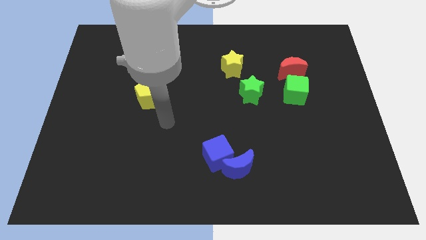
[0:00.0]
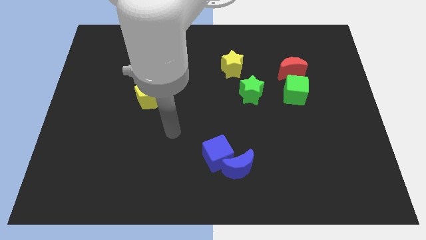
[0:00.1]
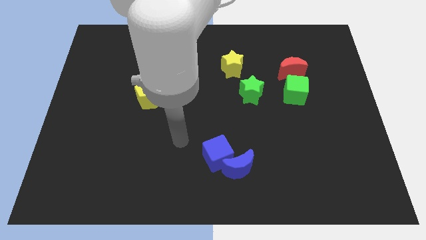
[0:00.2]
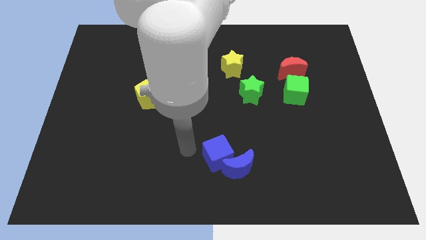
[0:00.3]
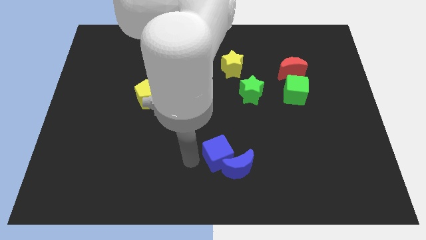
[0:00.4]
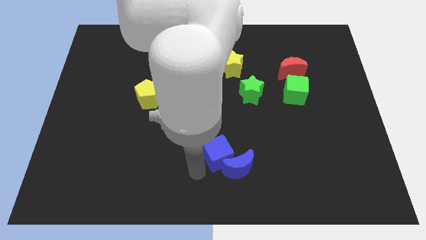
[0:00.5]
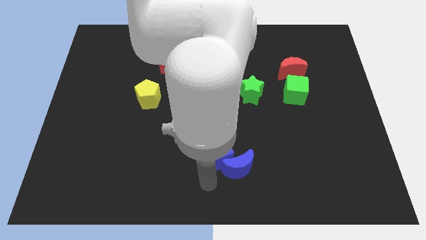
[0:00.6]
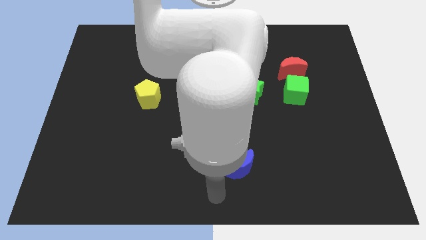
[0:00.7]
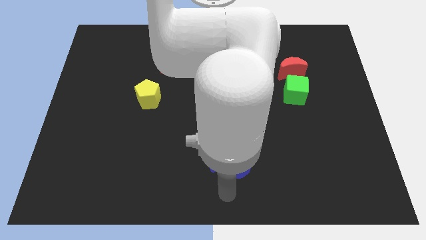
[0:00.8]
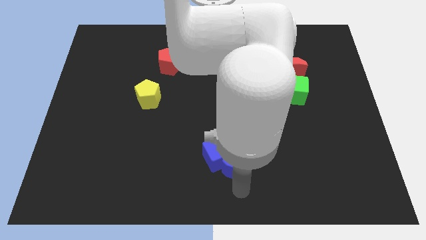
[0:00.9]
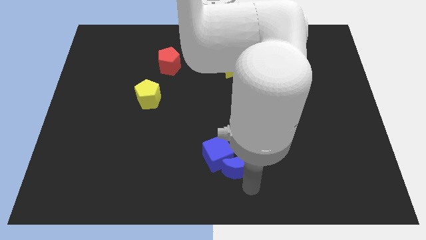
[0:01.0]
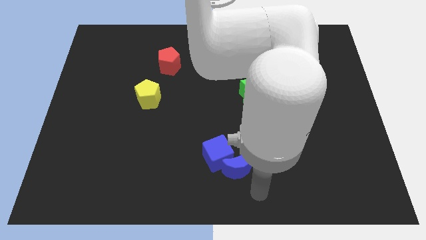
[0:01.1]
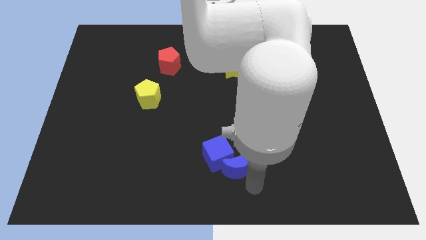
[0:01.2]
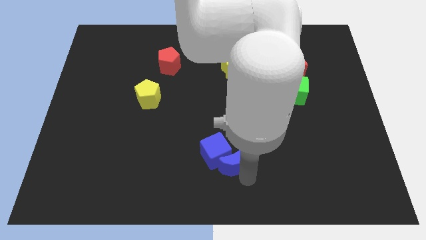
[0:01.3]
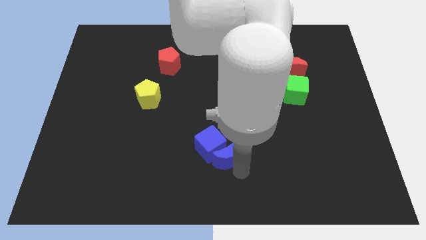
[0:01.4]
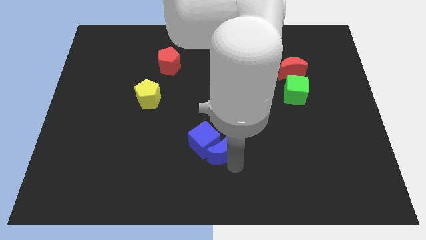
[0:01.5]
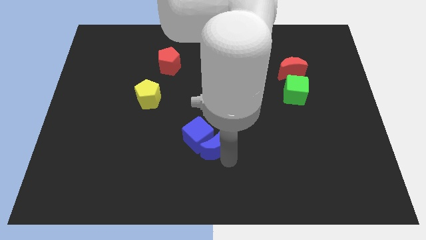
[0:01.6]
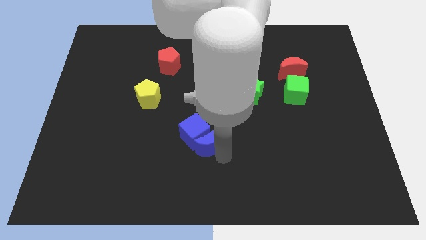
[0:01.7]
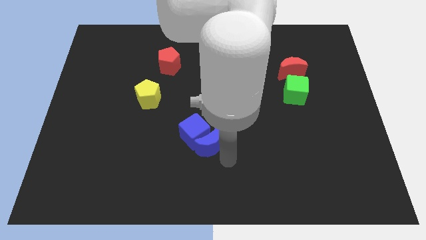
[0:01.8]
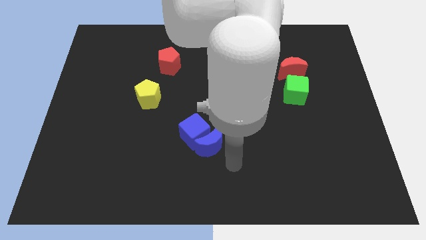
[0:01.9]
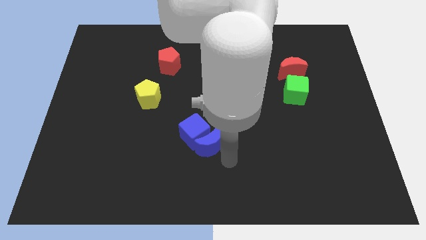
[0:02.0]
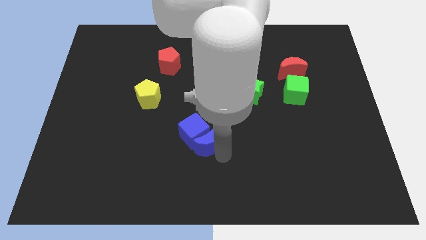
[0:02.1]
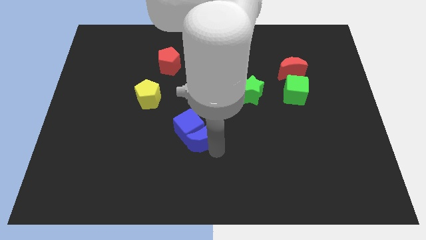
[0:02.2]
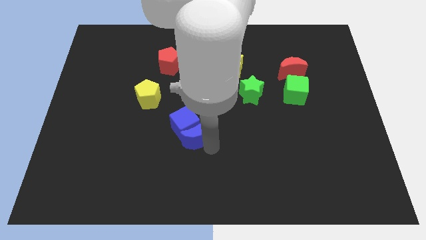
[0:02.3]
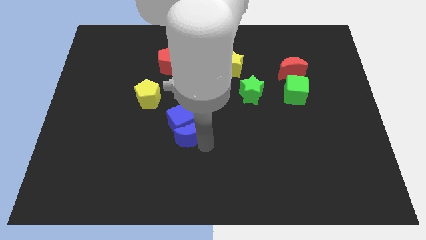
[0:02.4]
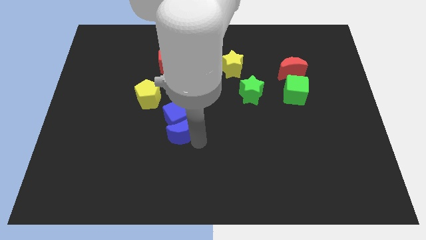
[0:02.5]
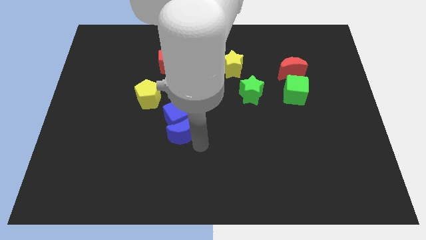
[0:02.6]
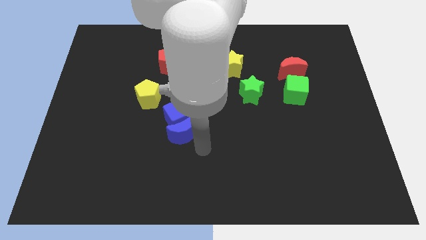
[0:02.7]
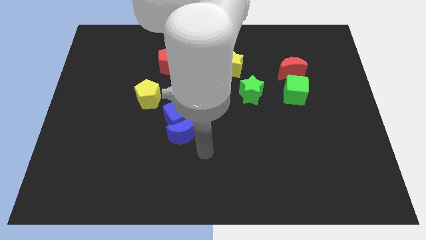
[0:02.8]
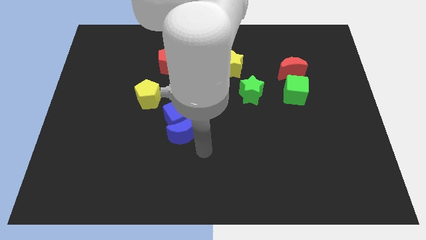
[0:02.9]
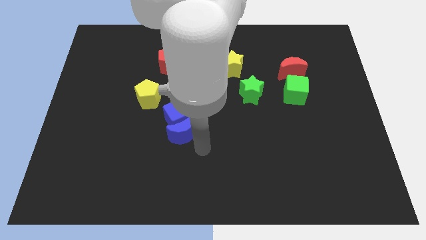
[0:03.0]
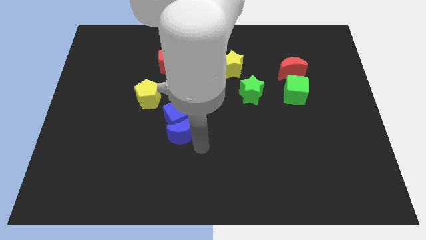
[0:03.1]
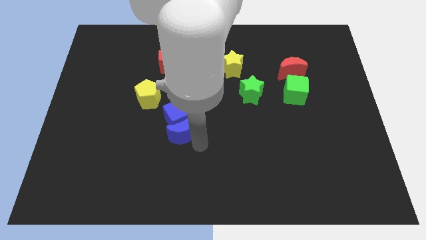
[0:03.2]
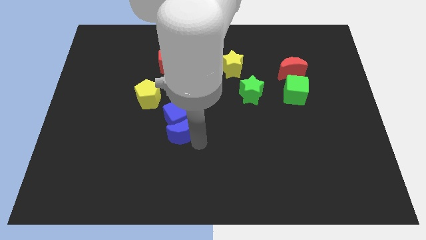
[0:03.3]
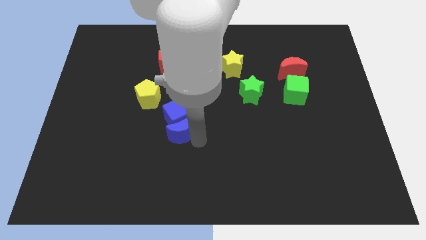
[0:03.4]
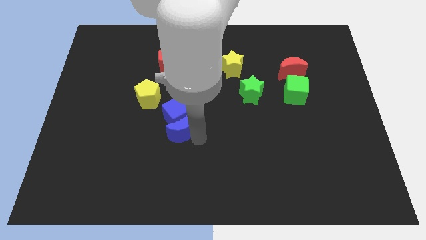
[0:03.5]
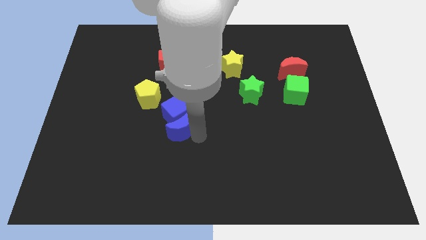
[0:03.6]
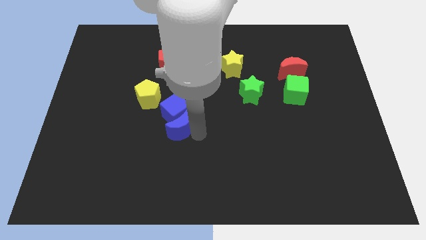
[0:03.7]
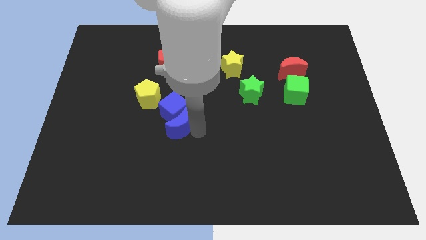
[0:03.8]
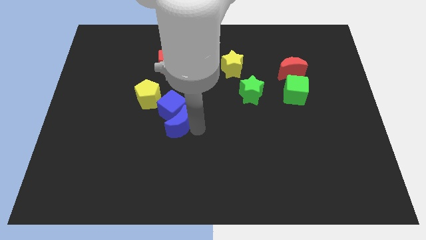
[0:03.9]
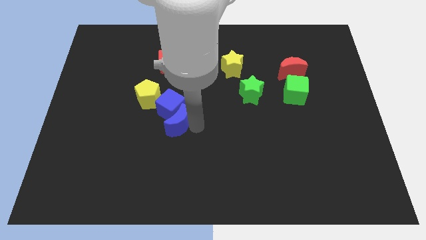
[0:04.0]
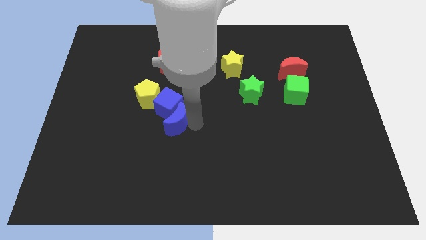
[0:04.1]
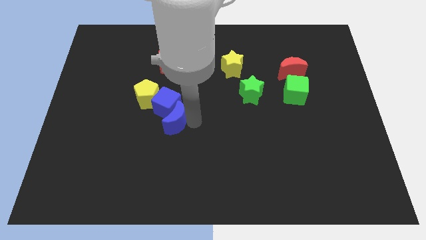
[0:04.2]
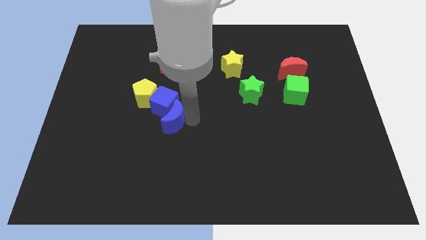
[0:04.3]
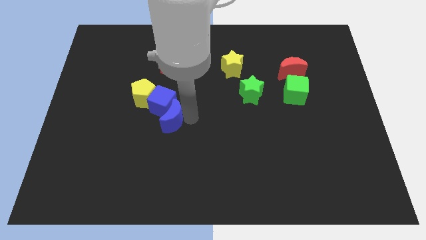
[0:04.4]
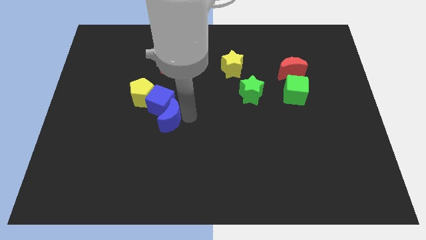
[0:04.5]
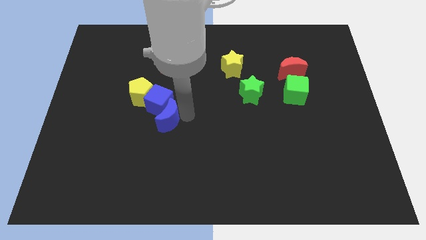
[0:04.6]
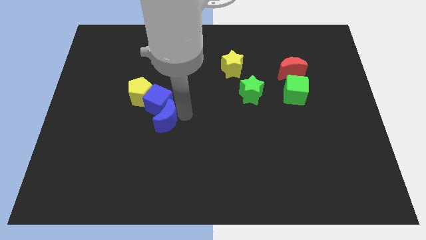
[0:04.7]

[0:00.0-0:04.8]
push the blue moon upwards and left

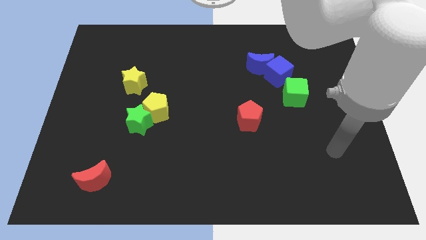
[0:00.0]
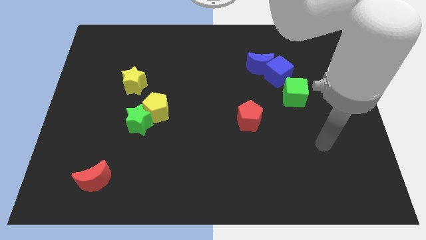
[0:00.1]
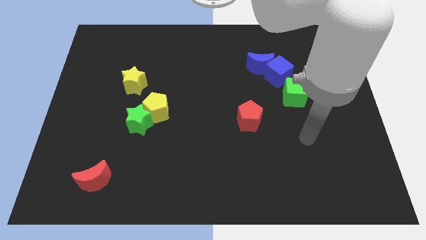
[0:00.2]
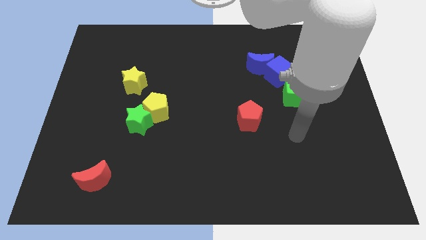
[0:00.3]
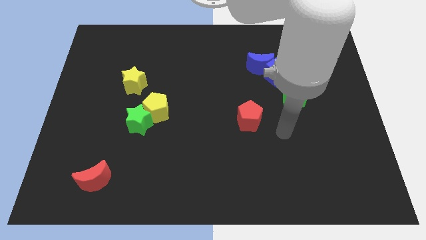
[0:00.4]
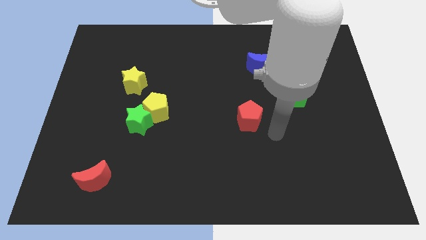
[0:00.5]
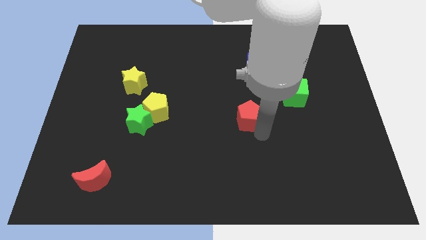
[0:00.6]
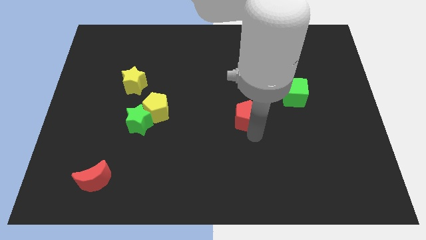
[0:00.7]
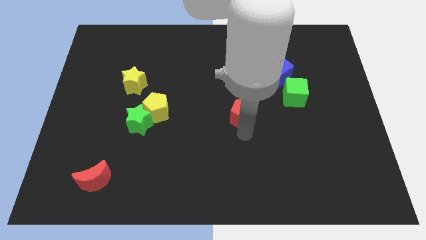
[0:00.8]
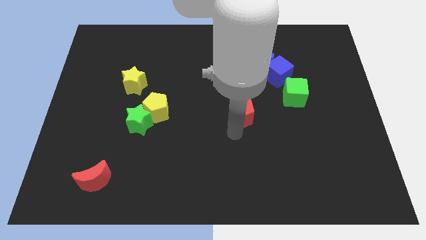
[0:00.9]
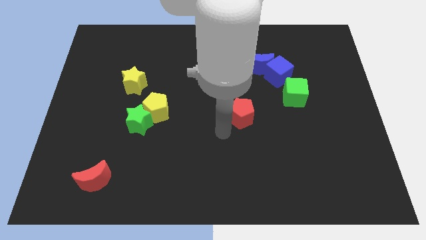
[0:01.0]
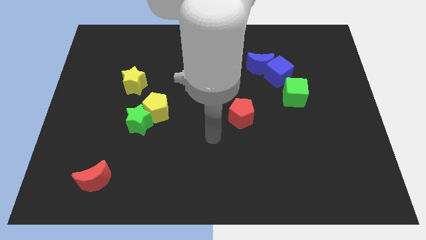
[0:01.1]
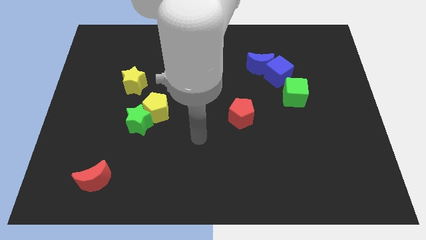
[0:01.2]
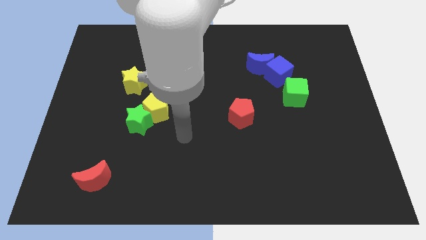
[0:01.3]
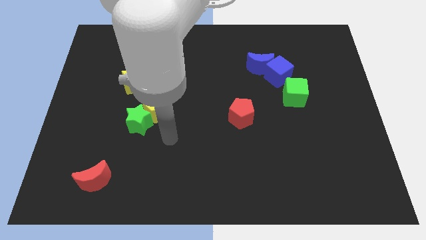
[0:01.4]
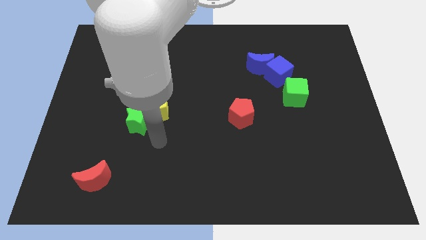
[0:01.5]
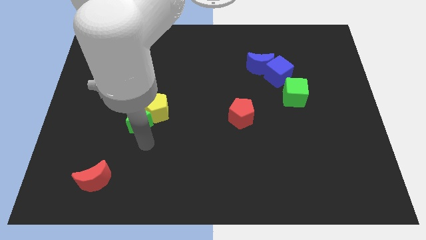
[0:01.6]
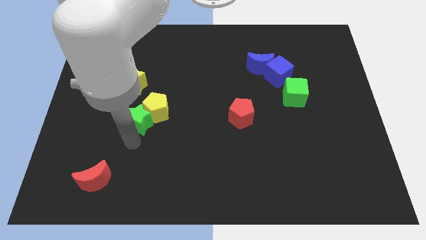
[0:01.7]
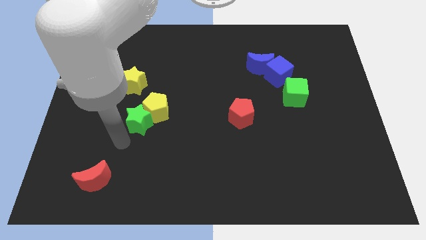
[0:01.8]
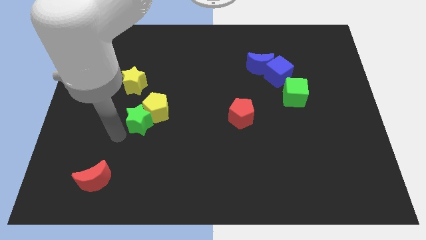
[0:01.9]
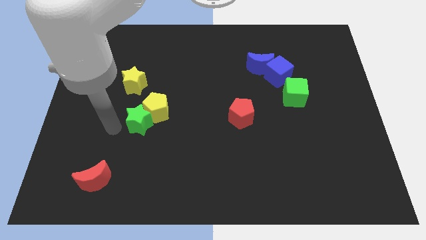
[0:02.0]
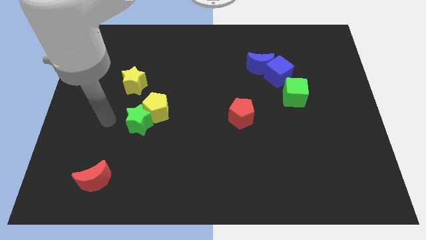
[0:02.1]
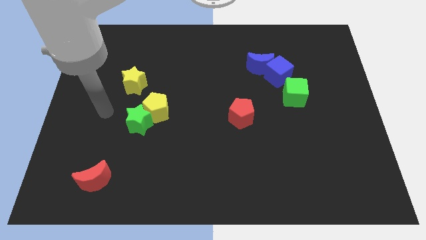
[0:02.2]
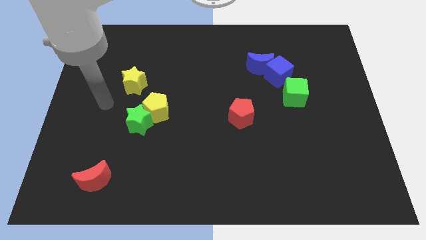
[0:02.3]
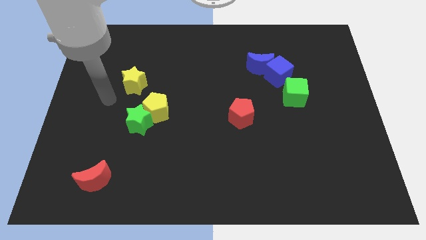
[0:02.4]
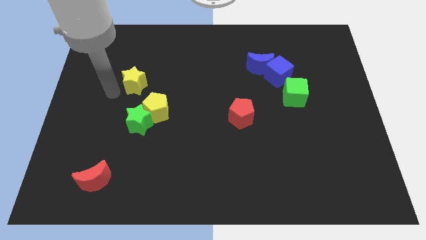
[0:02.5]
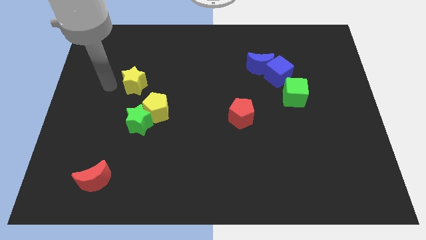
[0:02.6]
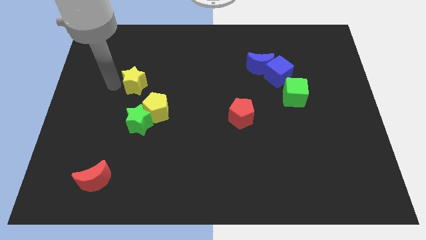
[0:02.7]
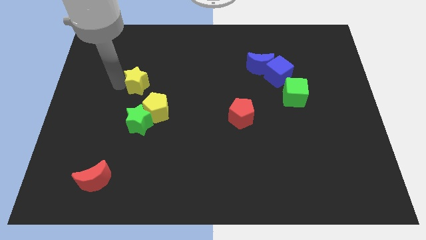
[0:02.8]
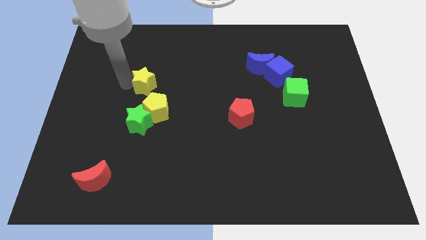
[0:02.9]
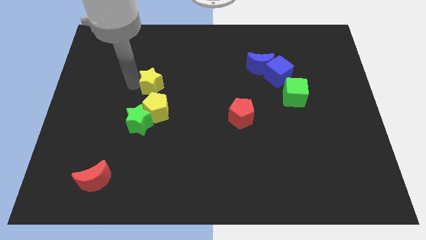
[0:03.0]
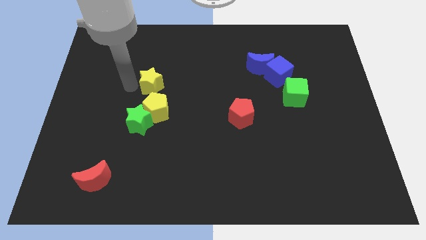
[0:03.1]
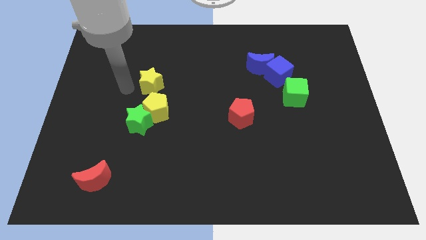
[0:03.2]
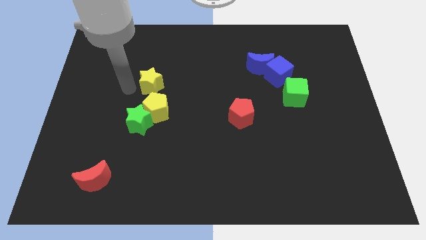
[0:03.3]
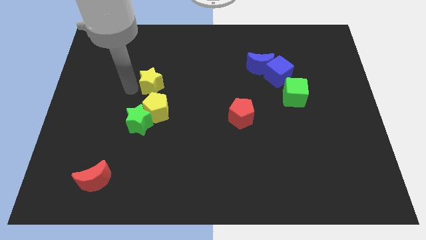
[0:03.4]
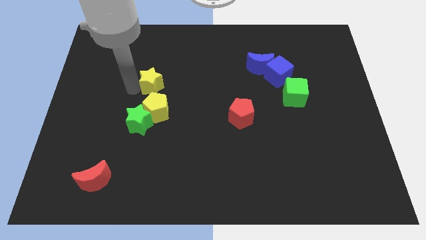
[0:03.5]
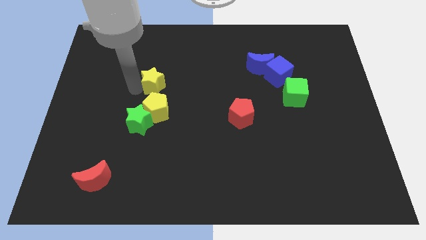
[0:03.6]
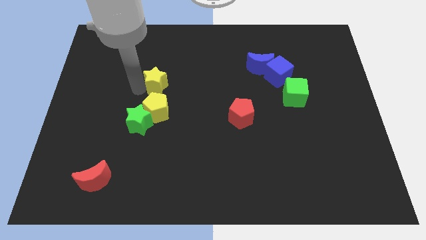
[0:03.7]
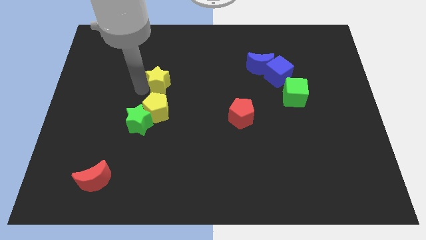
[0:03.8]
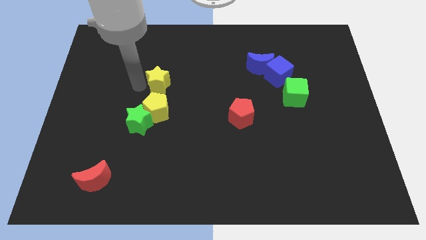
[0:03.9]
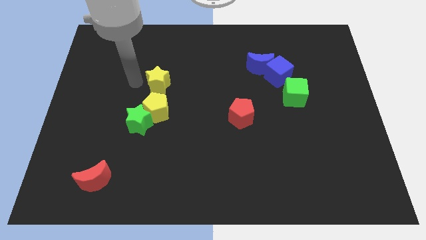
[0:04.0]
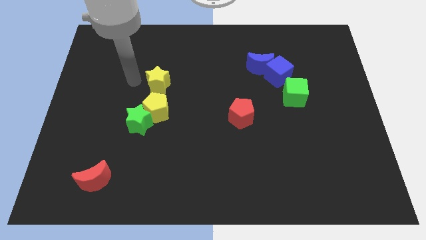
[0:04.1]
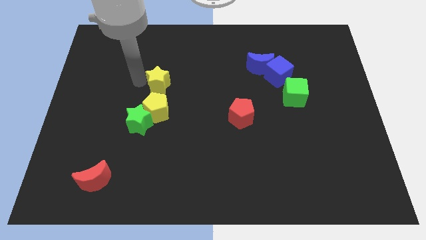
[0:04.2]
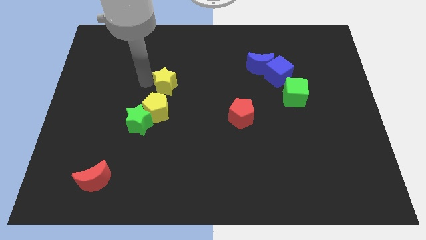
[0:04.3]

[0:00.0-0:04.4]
slightly push the yellow star to the right
